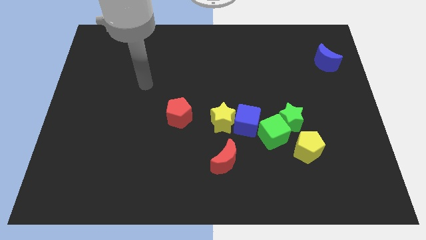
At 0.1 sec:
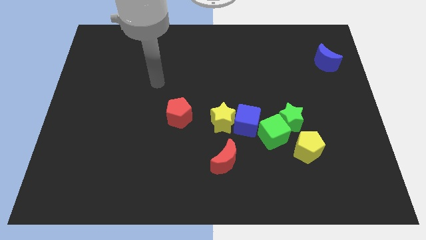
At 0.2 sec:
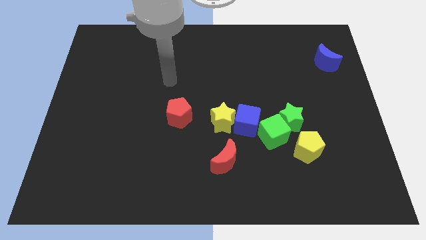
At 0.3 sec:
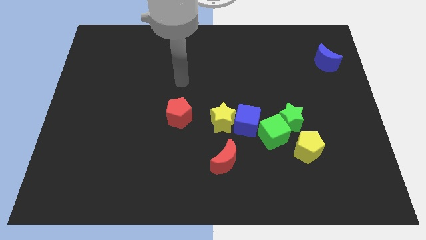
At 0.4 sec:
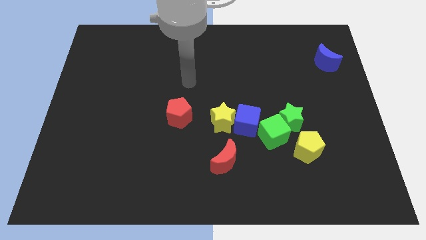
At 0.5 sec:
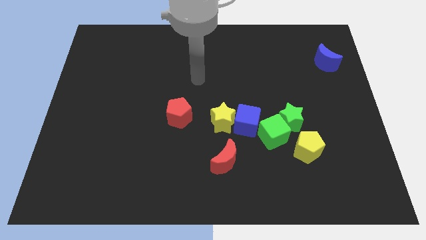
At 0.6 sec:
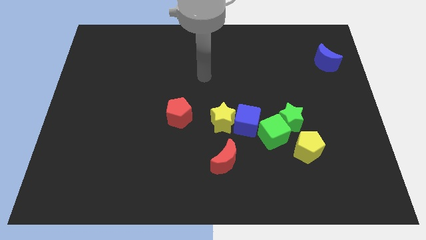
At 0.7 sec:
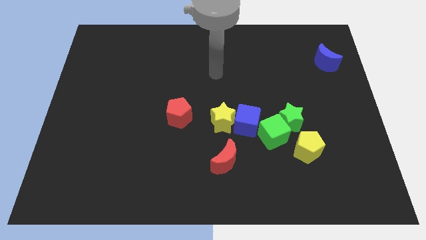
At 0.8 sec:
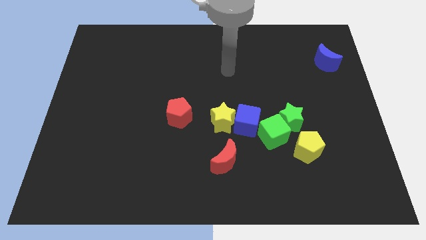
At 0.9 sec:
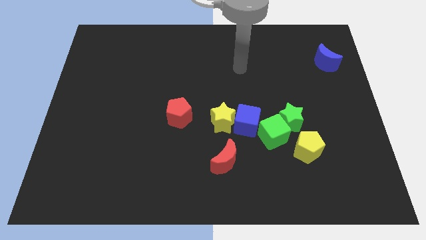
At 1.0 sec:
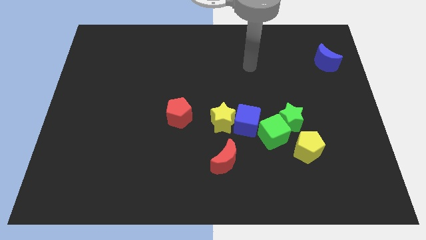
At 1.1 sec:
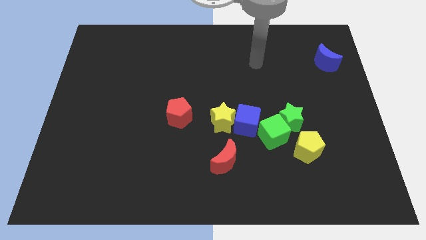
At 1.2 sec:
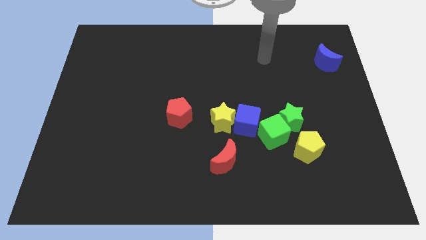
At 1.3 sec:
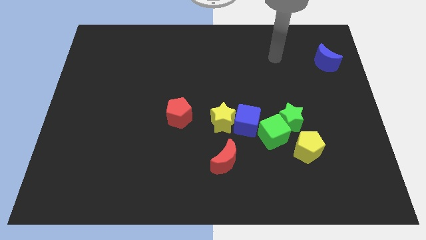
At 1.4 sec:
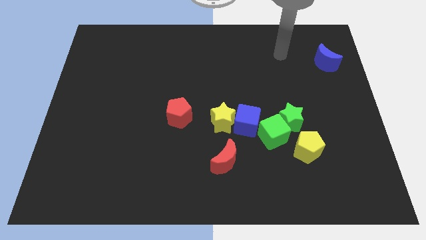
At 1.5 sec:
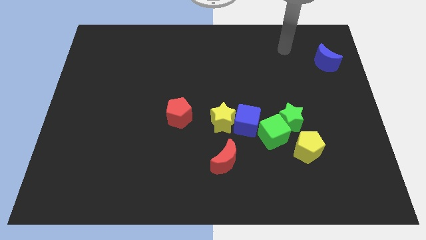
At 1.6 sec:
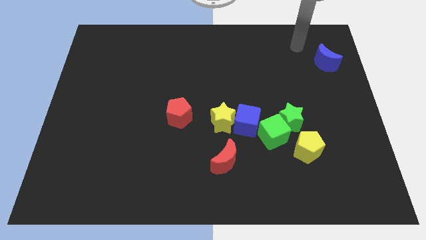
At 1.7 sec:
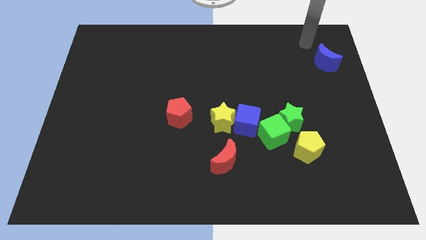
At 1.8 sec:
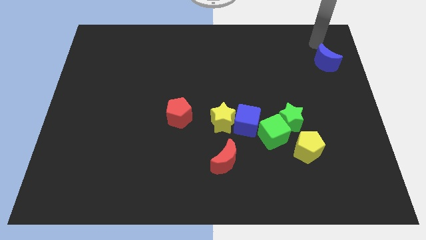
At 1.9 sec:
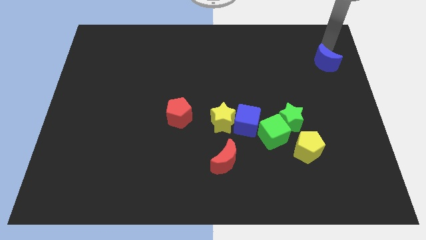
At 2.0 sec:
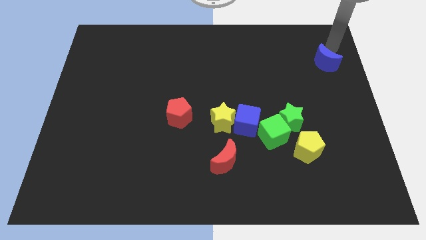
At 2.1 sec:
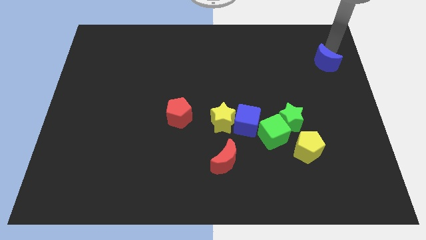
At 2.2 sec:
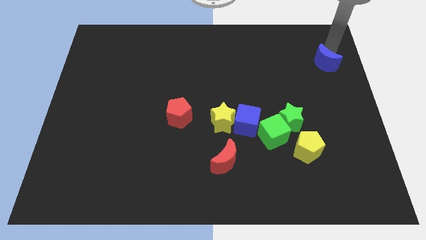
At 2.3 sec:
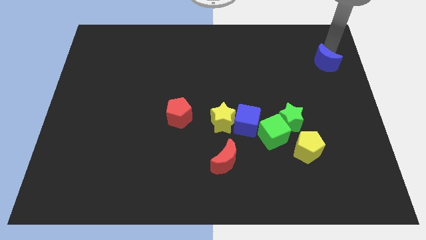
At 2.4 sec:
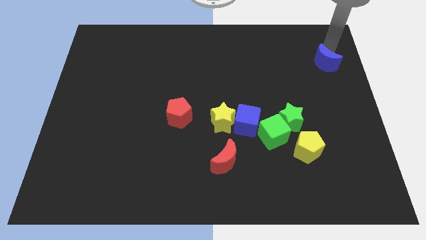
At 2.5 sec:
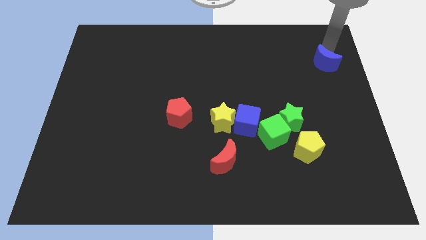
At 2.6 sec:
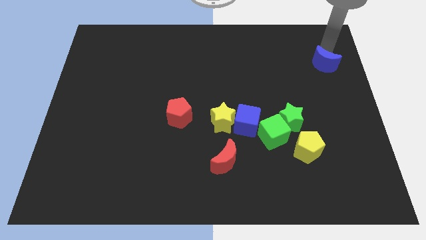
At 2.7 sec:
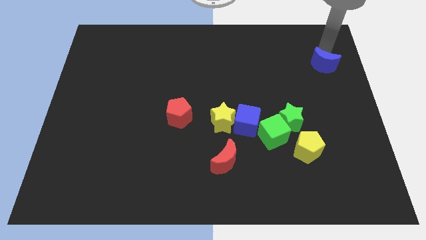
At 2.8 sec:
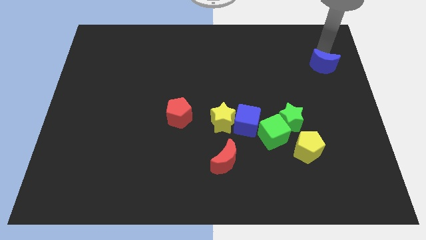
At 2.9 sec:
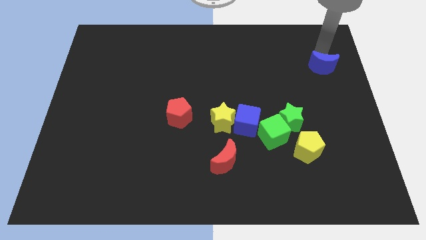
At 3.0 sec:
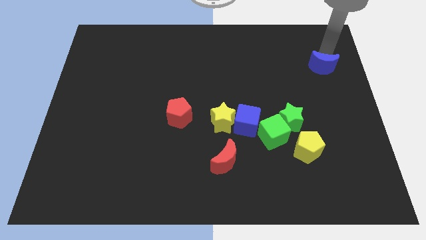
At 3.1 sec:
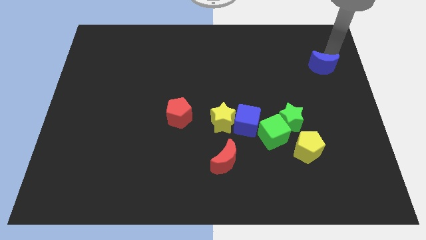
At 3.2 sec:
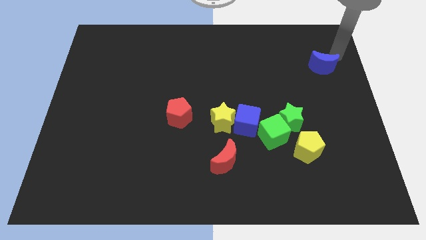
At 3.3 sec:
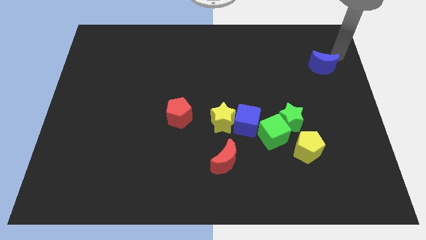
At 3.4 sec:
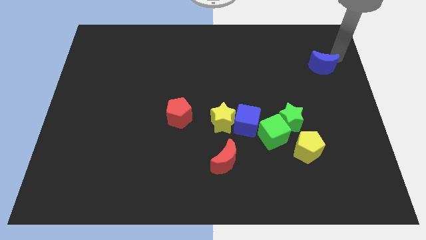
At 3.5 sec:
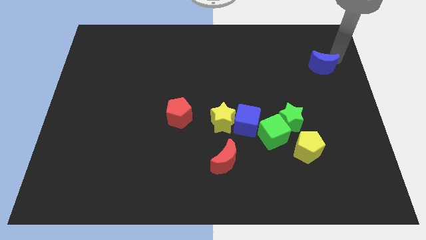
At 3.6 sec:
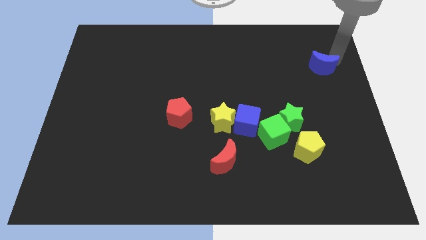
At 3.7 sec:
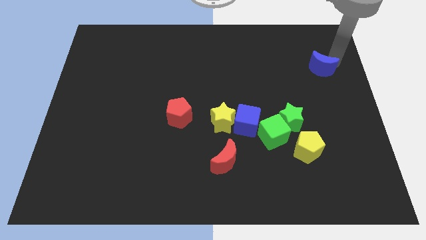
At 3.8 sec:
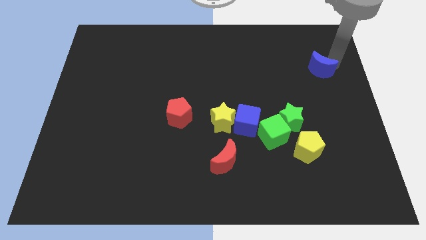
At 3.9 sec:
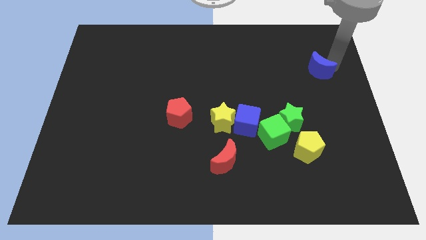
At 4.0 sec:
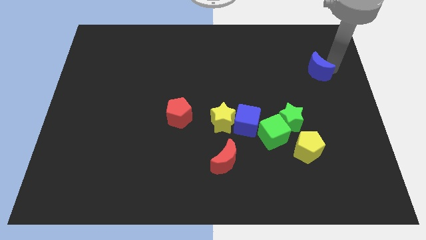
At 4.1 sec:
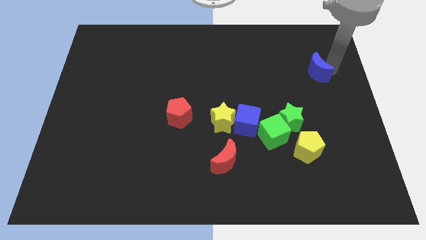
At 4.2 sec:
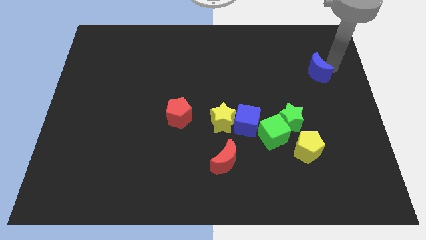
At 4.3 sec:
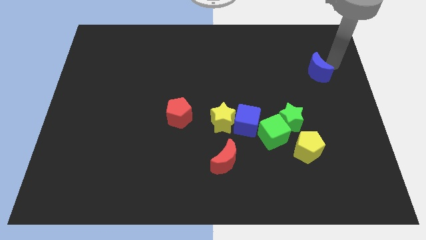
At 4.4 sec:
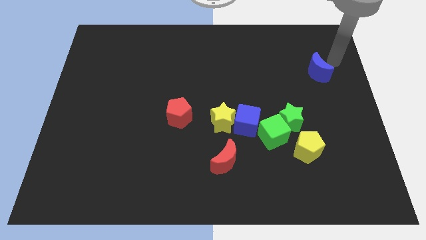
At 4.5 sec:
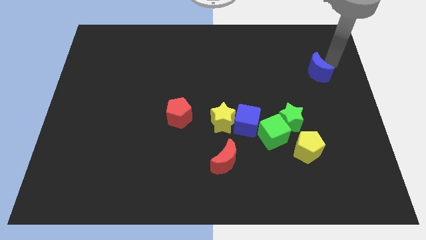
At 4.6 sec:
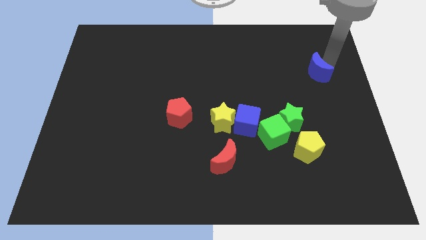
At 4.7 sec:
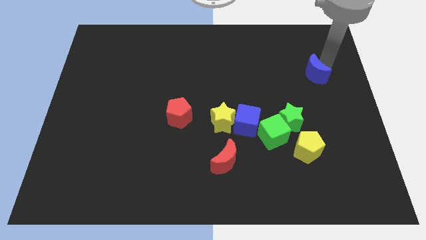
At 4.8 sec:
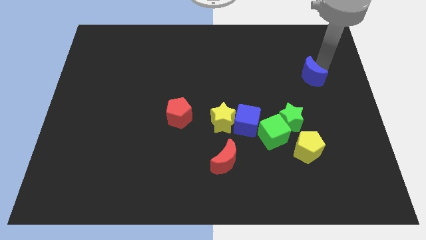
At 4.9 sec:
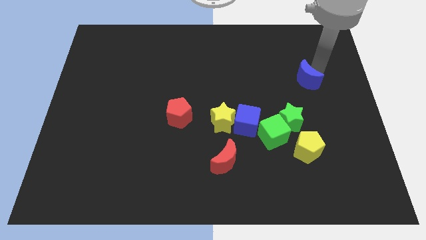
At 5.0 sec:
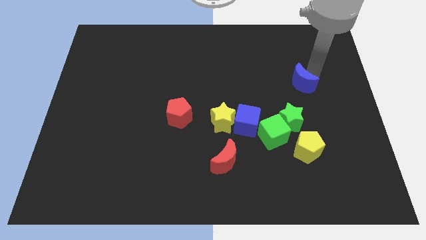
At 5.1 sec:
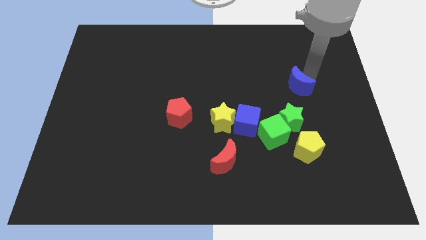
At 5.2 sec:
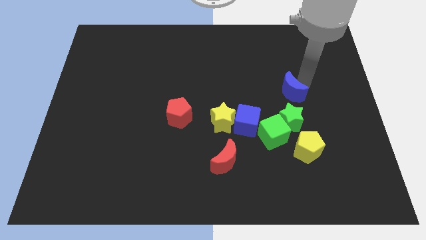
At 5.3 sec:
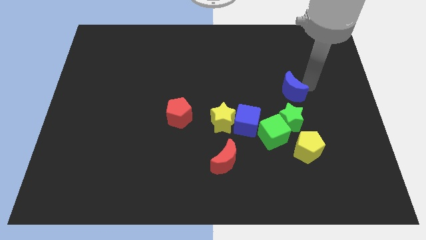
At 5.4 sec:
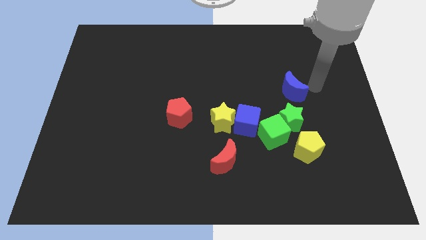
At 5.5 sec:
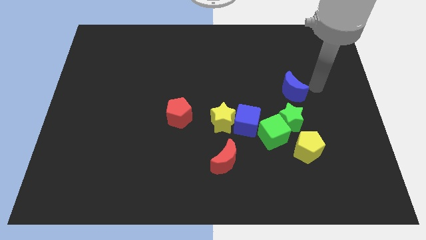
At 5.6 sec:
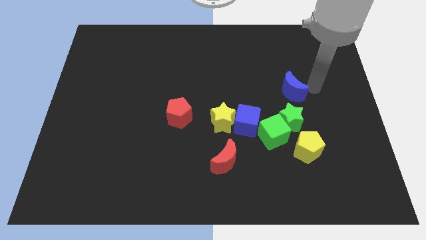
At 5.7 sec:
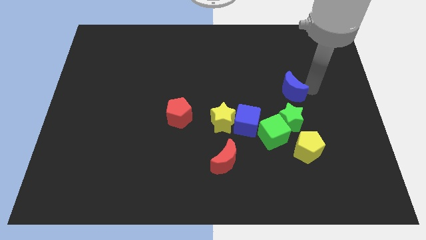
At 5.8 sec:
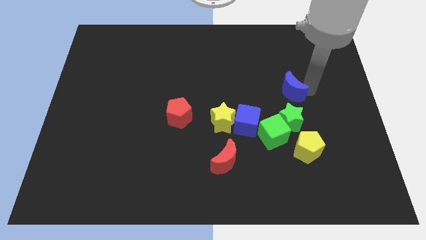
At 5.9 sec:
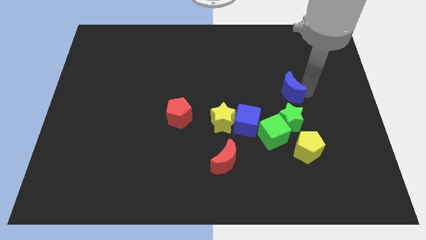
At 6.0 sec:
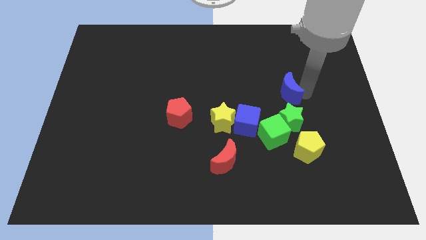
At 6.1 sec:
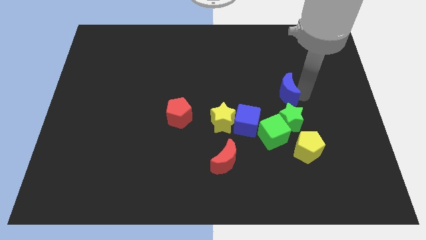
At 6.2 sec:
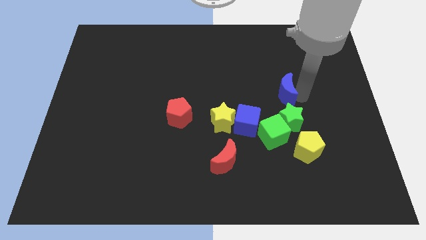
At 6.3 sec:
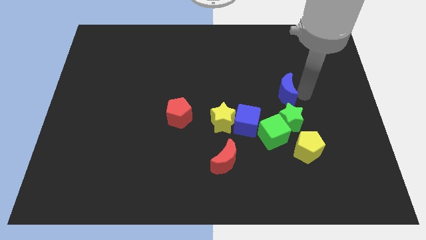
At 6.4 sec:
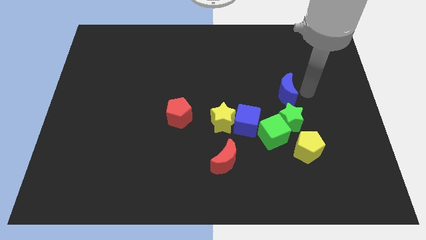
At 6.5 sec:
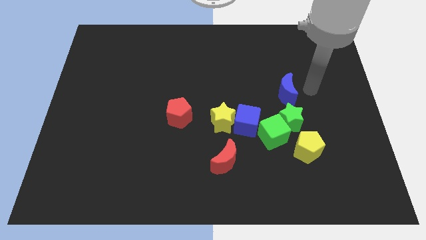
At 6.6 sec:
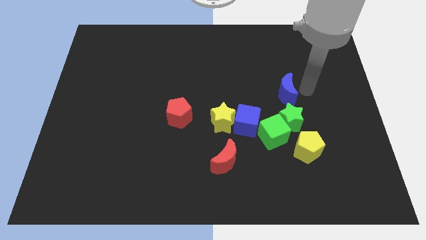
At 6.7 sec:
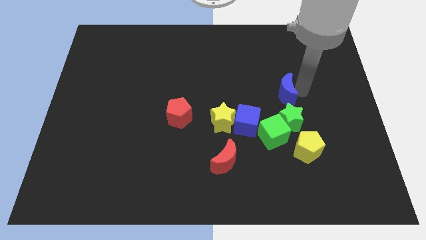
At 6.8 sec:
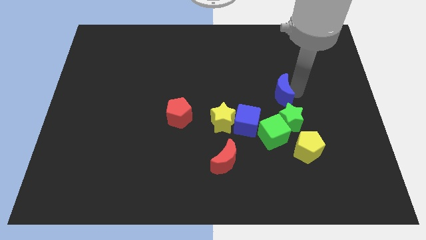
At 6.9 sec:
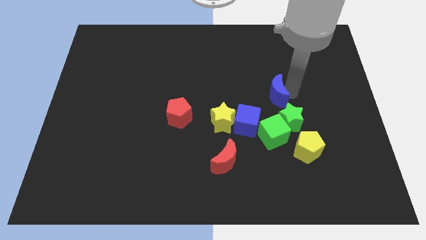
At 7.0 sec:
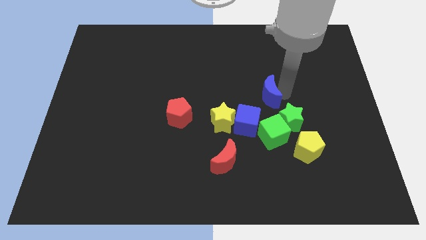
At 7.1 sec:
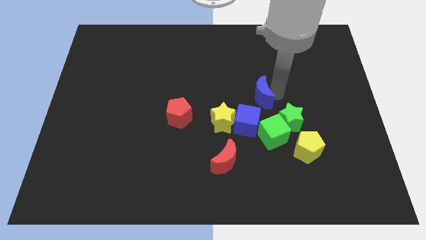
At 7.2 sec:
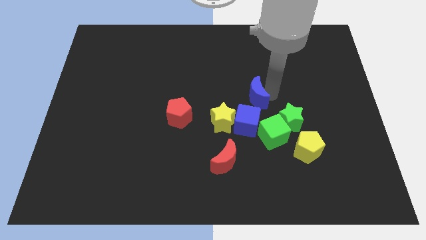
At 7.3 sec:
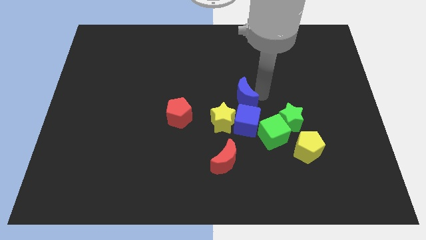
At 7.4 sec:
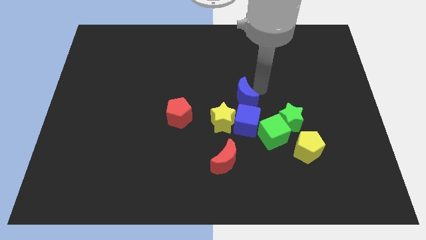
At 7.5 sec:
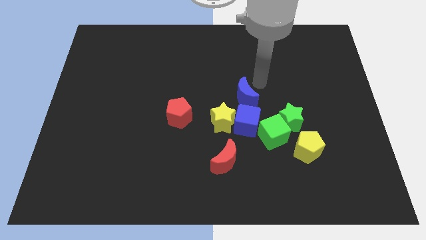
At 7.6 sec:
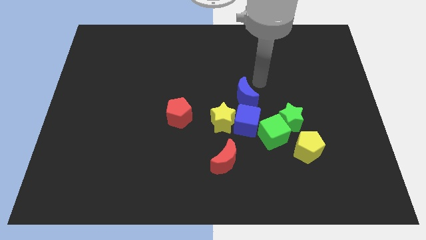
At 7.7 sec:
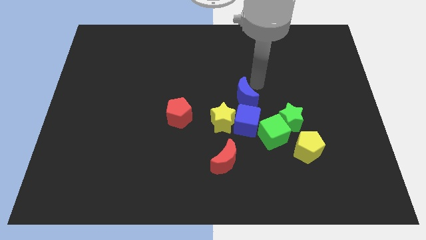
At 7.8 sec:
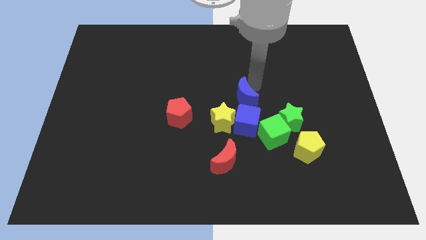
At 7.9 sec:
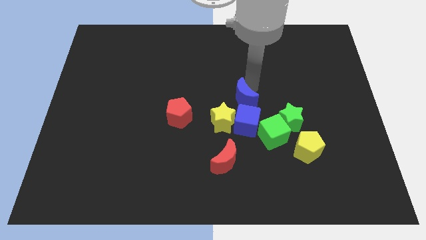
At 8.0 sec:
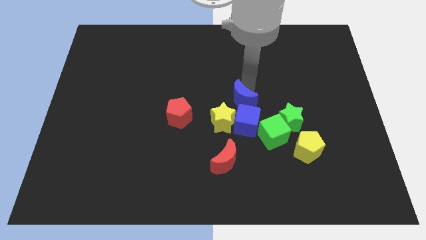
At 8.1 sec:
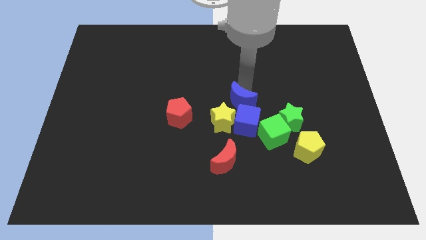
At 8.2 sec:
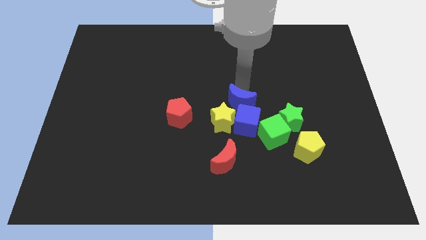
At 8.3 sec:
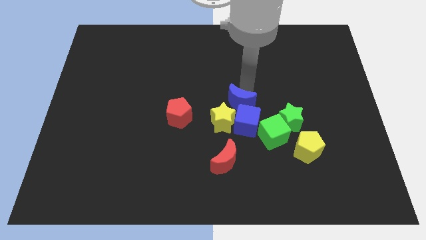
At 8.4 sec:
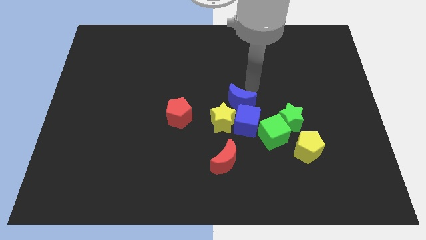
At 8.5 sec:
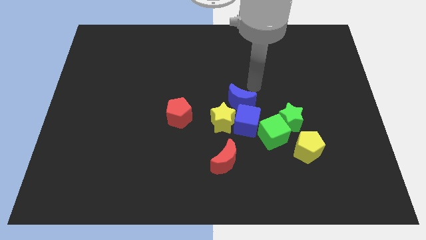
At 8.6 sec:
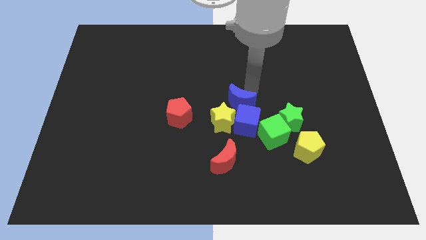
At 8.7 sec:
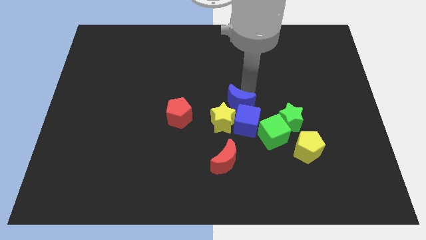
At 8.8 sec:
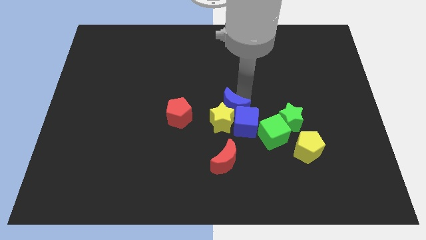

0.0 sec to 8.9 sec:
push the blue moon to the yellow star
